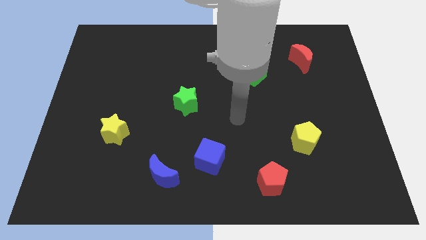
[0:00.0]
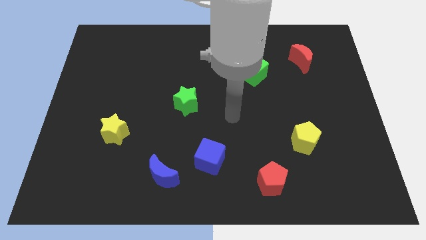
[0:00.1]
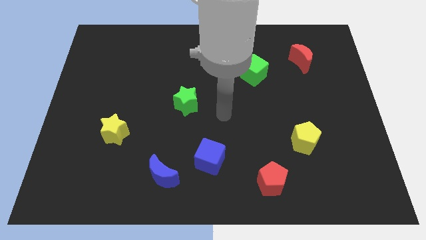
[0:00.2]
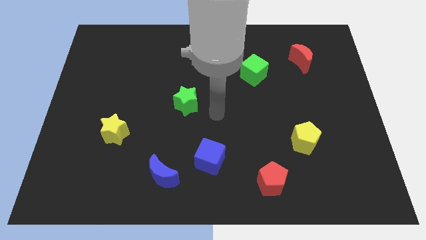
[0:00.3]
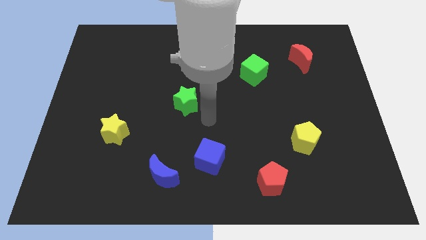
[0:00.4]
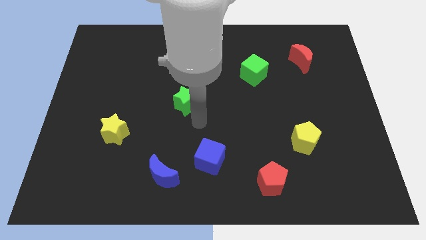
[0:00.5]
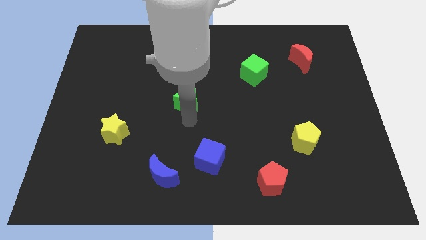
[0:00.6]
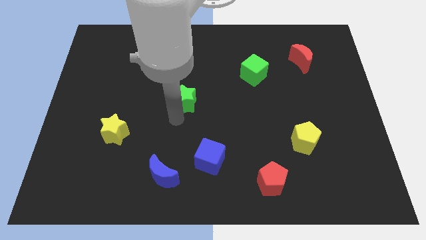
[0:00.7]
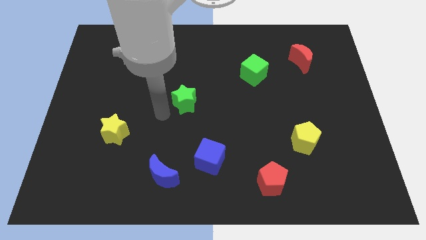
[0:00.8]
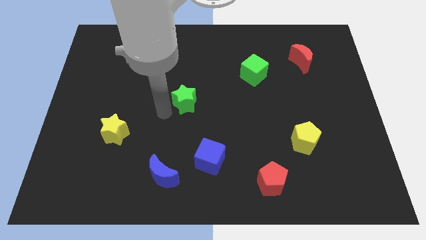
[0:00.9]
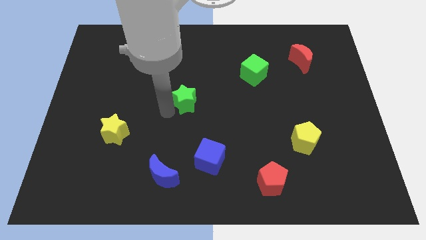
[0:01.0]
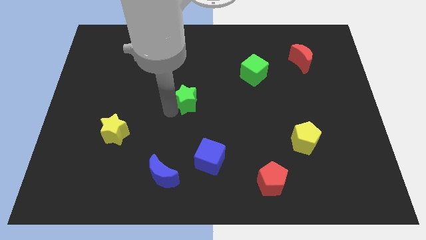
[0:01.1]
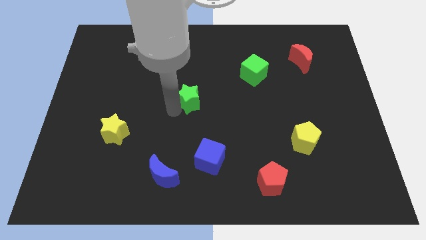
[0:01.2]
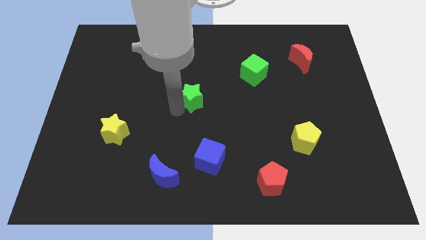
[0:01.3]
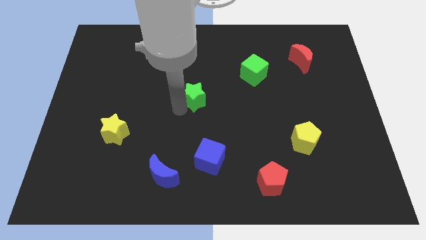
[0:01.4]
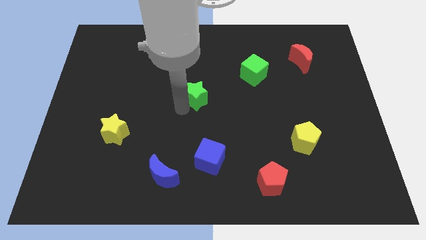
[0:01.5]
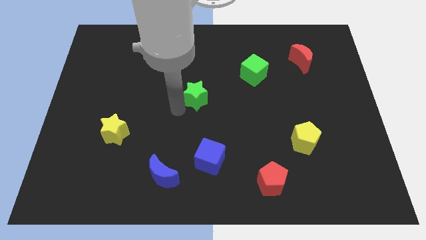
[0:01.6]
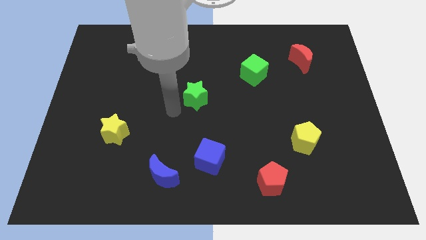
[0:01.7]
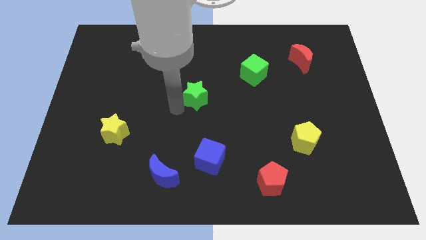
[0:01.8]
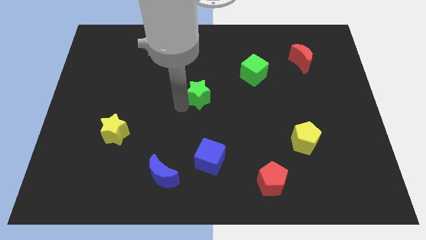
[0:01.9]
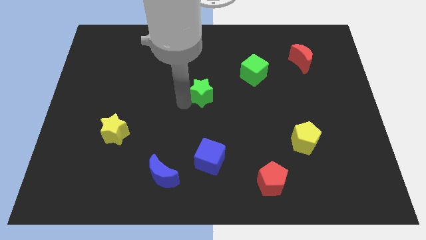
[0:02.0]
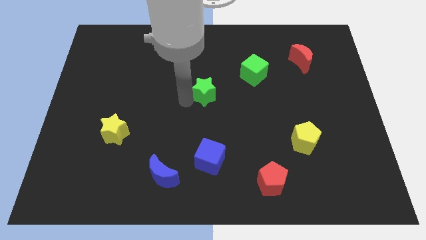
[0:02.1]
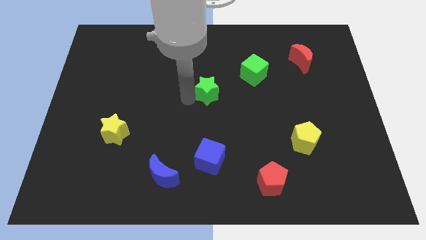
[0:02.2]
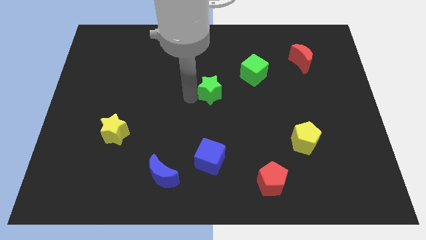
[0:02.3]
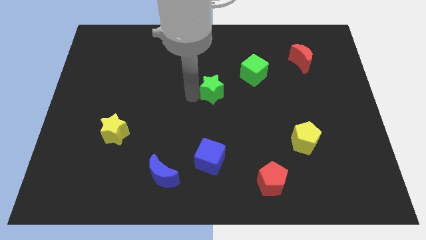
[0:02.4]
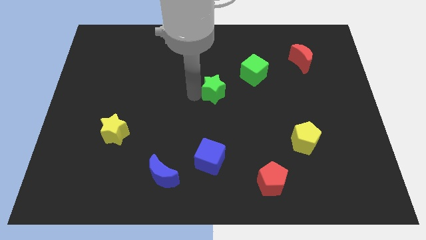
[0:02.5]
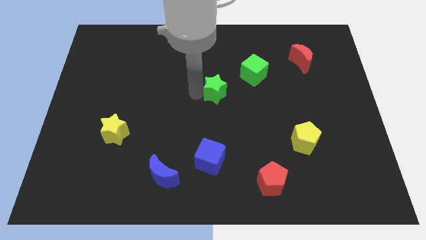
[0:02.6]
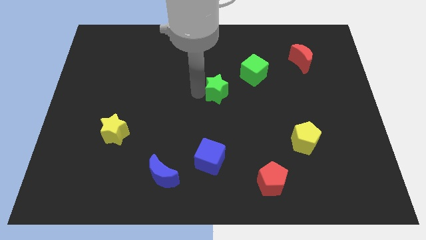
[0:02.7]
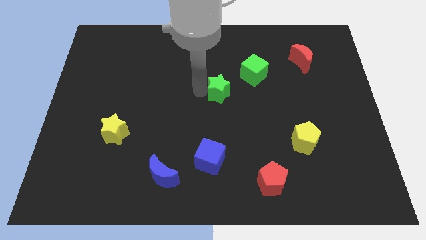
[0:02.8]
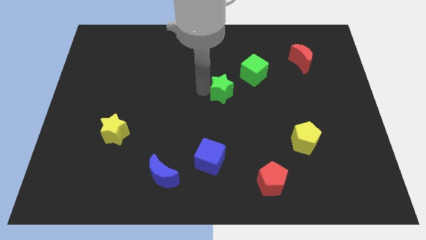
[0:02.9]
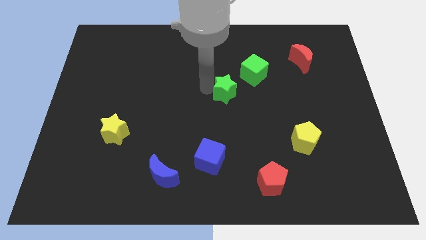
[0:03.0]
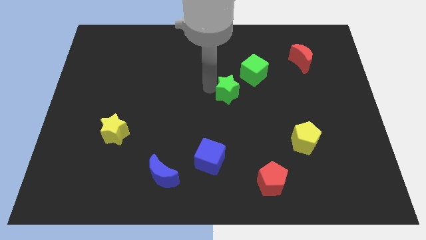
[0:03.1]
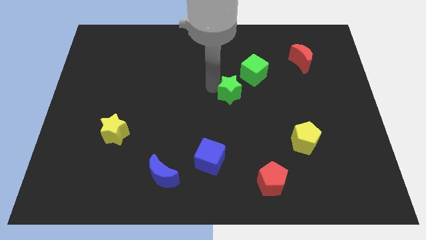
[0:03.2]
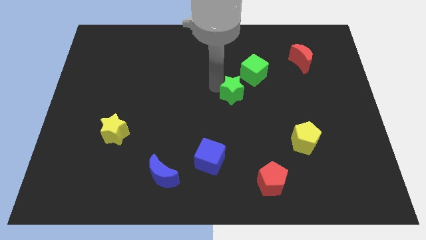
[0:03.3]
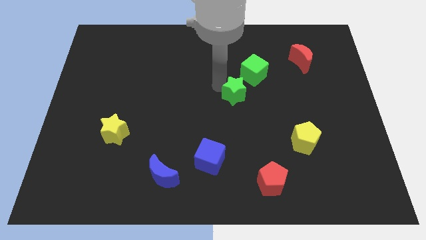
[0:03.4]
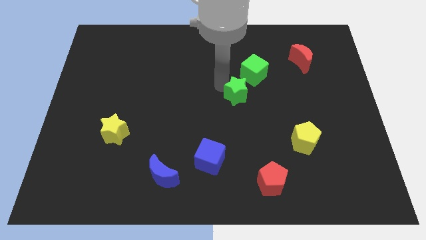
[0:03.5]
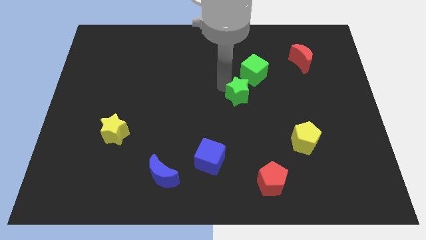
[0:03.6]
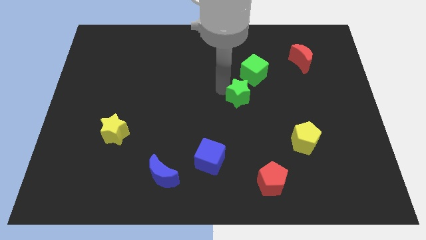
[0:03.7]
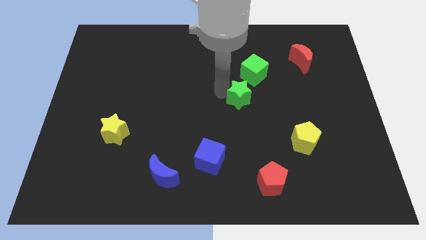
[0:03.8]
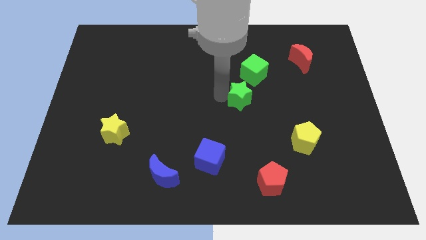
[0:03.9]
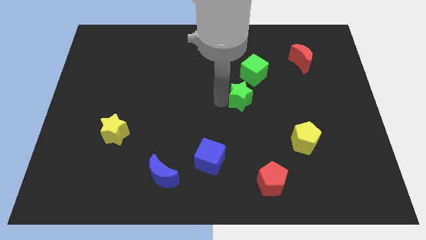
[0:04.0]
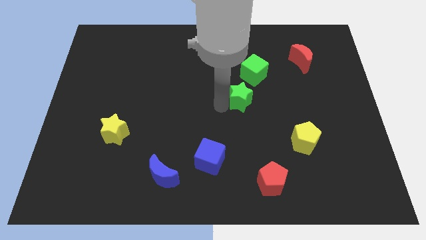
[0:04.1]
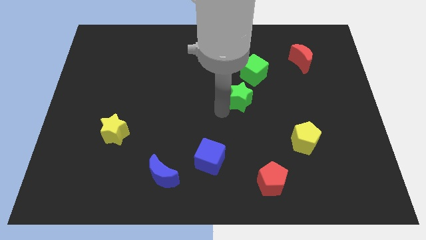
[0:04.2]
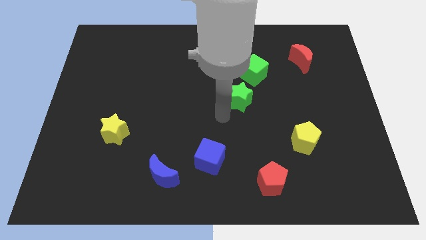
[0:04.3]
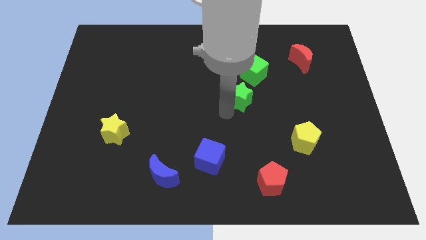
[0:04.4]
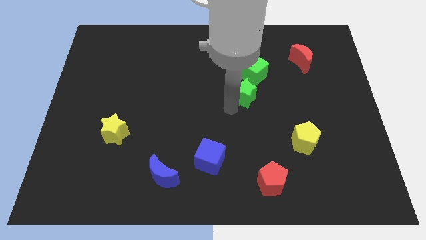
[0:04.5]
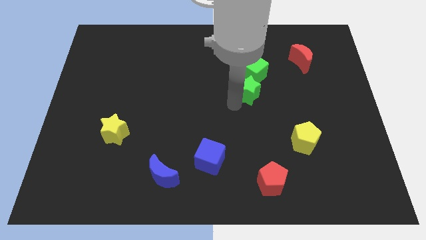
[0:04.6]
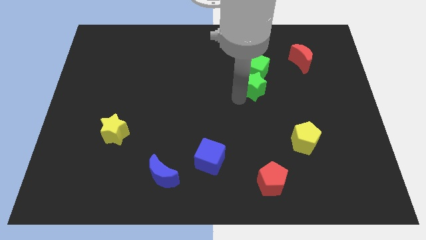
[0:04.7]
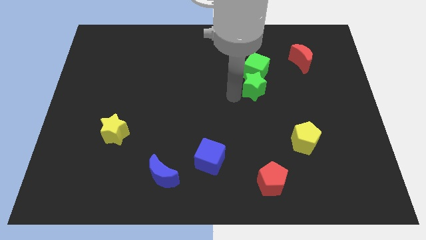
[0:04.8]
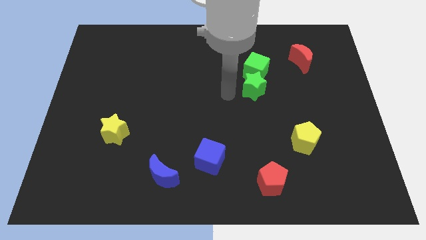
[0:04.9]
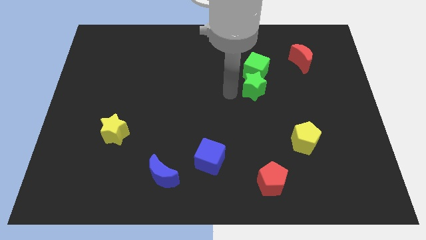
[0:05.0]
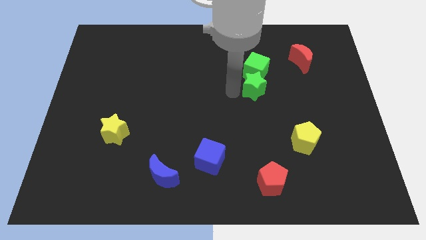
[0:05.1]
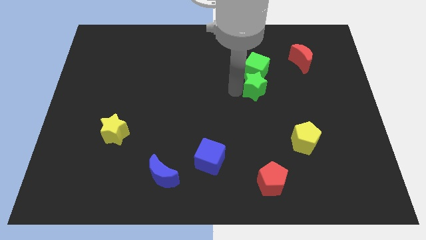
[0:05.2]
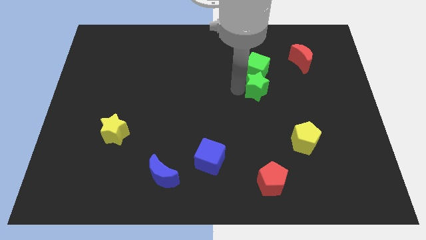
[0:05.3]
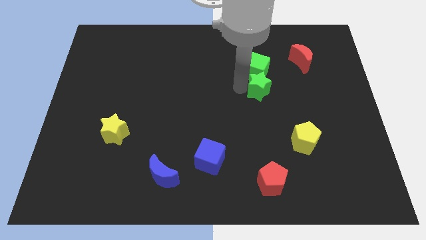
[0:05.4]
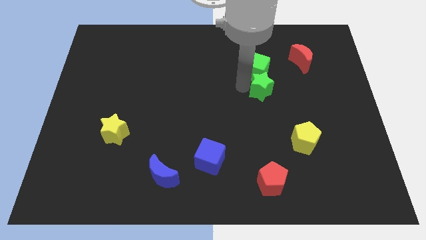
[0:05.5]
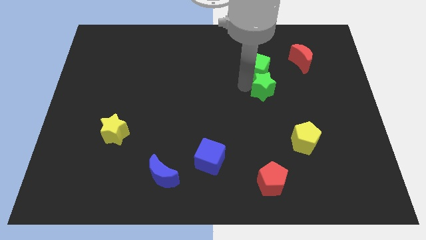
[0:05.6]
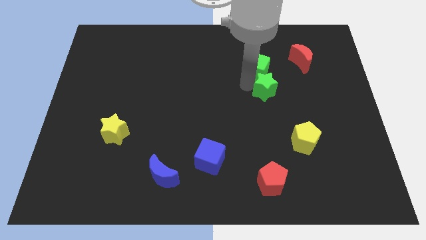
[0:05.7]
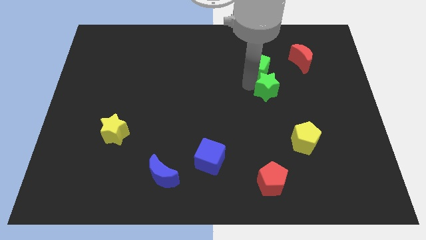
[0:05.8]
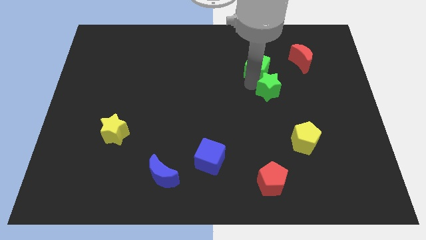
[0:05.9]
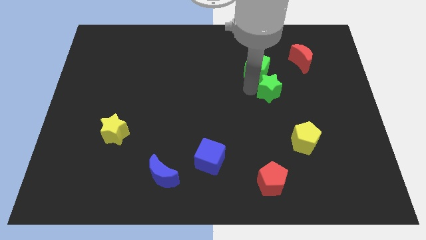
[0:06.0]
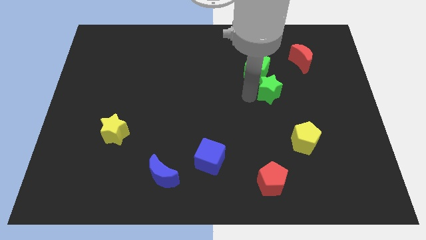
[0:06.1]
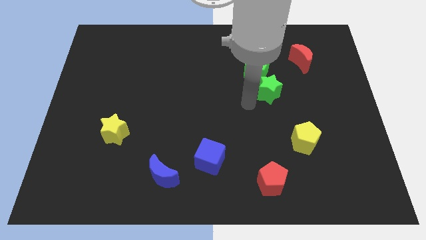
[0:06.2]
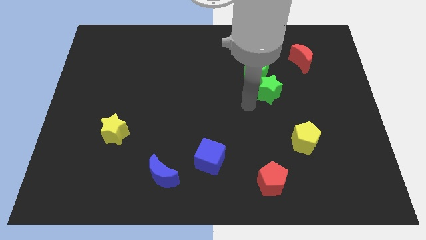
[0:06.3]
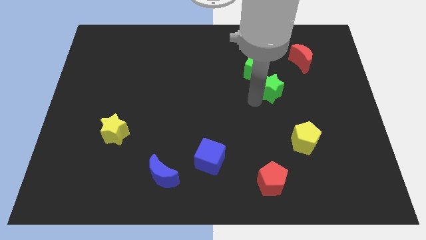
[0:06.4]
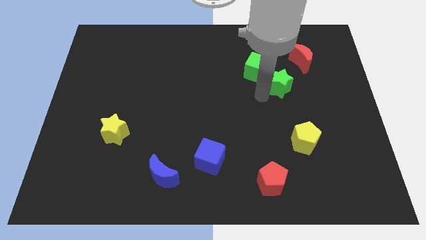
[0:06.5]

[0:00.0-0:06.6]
push the green star to the right side of the green cube

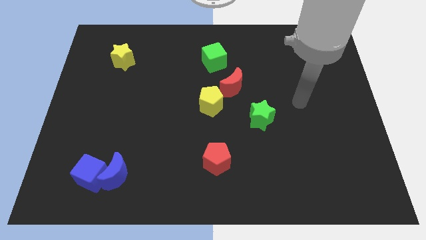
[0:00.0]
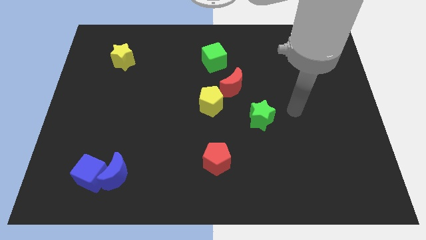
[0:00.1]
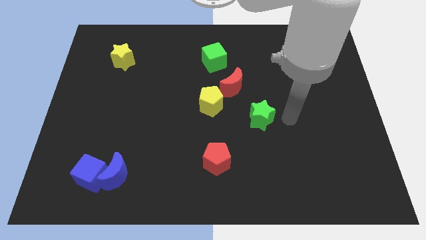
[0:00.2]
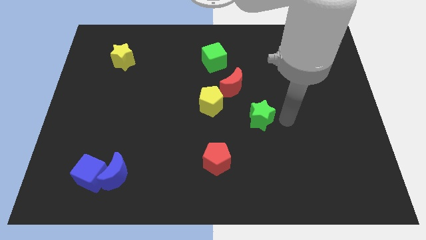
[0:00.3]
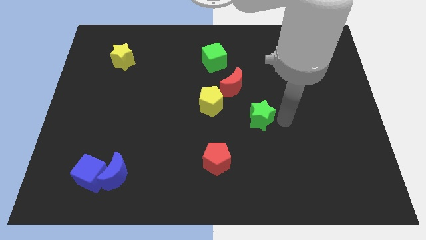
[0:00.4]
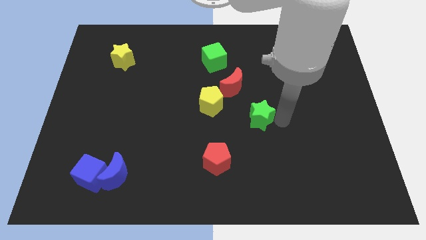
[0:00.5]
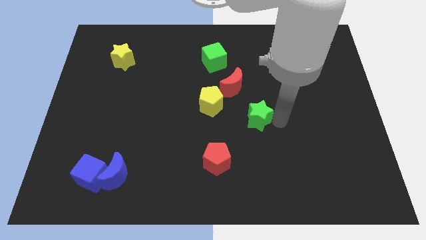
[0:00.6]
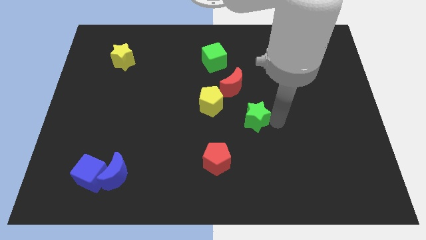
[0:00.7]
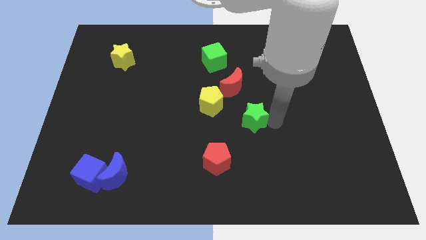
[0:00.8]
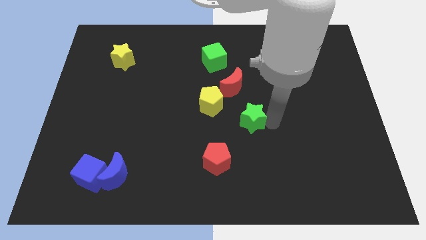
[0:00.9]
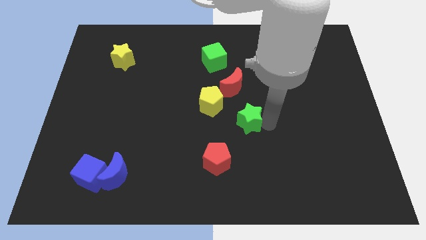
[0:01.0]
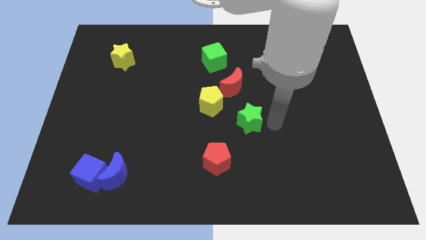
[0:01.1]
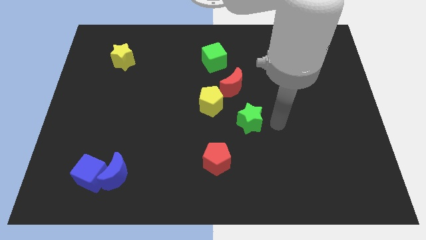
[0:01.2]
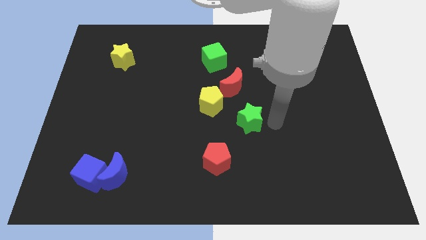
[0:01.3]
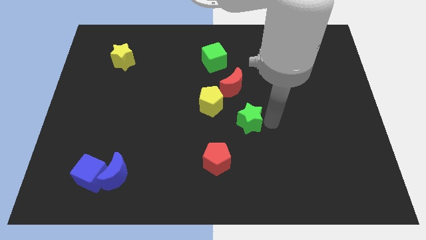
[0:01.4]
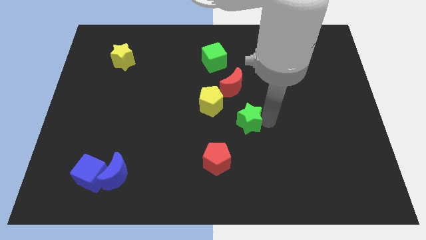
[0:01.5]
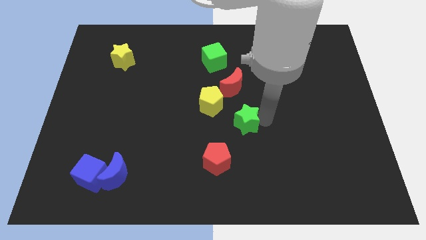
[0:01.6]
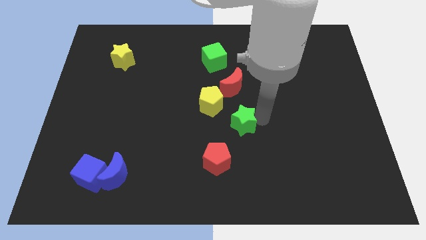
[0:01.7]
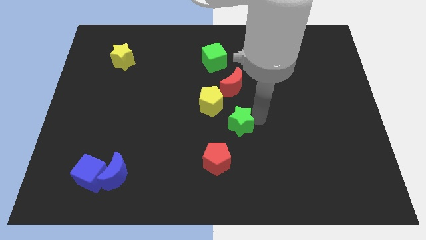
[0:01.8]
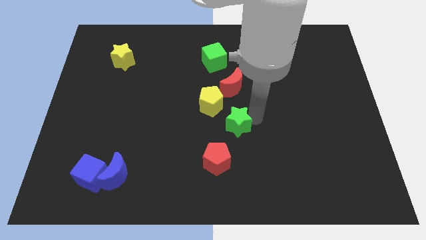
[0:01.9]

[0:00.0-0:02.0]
put the green star to the top of the red pentagon
